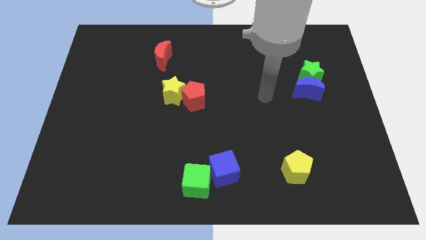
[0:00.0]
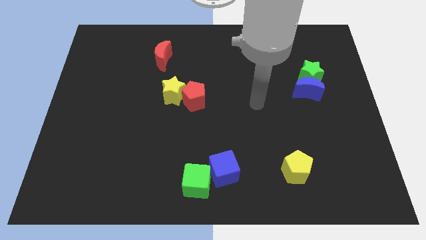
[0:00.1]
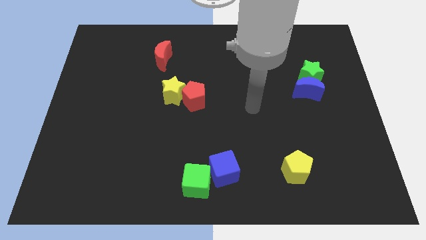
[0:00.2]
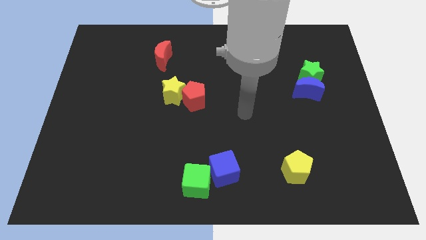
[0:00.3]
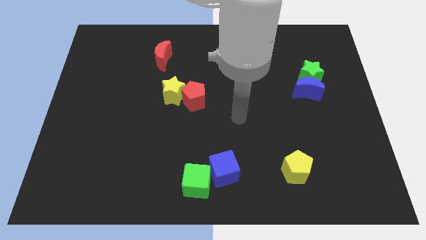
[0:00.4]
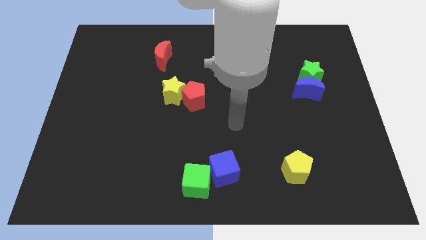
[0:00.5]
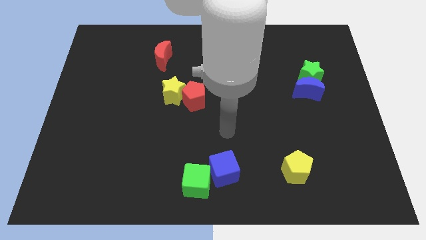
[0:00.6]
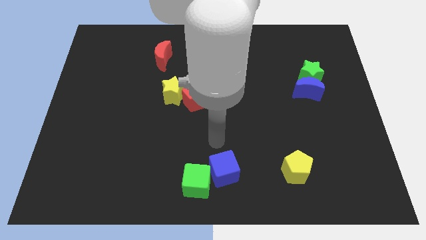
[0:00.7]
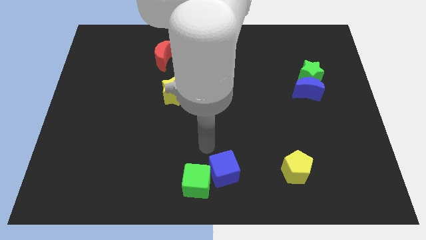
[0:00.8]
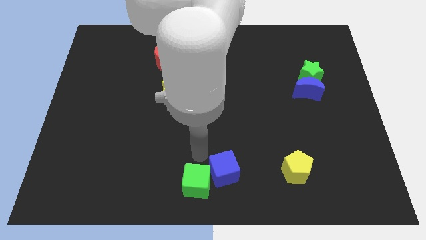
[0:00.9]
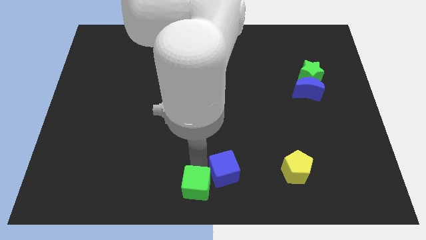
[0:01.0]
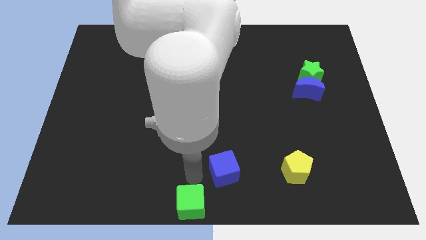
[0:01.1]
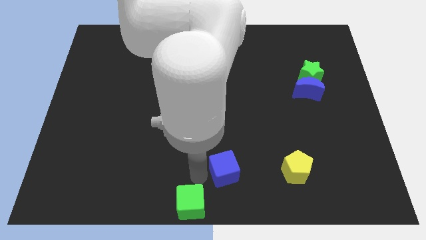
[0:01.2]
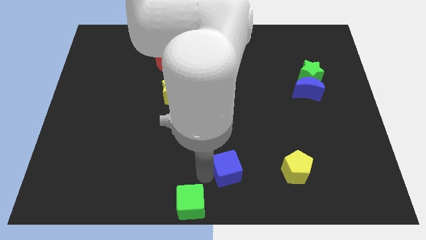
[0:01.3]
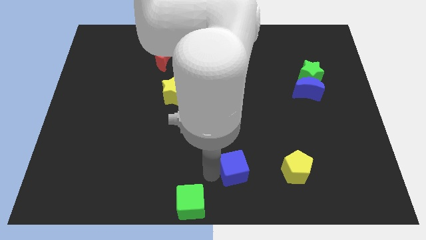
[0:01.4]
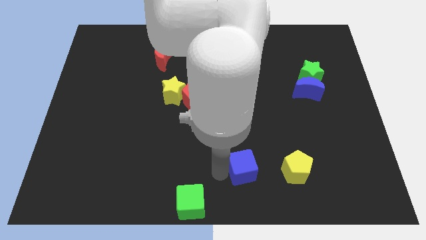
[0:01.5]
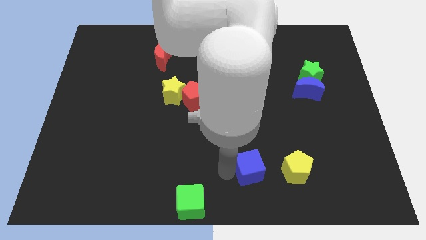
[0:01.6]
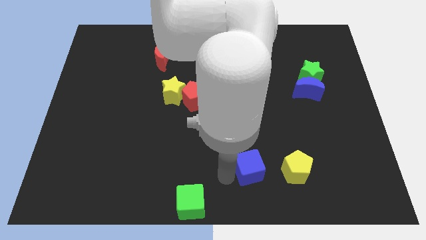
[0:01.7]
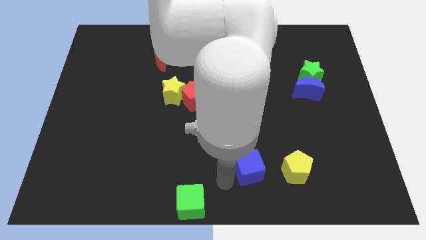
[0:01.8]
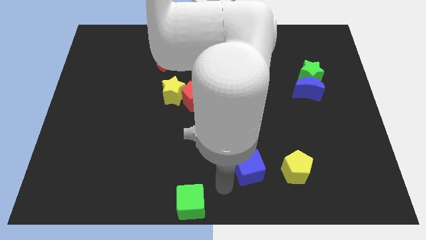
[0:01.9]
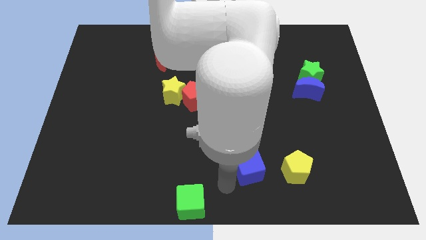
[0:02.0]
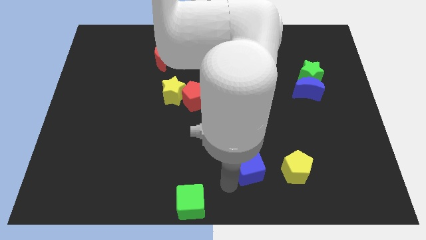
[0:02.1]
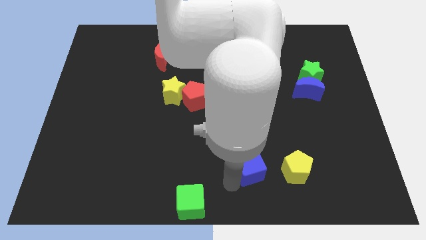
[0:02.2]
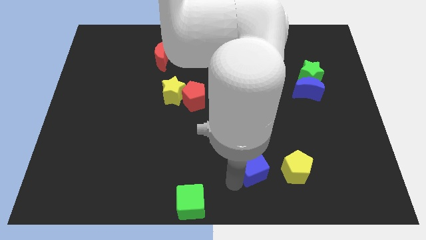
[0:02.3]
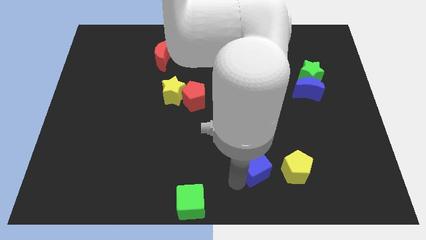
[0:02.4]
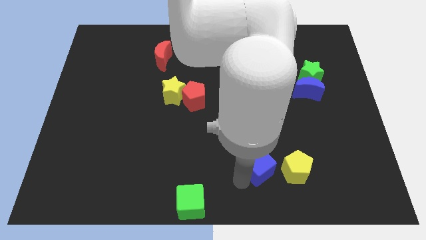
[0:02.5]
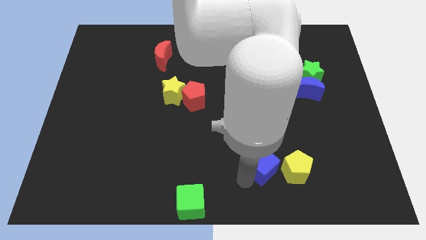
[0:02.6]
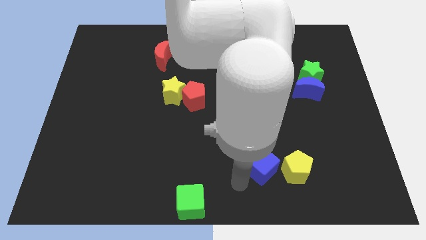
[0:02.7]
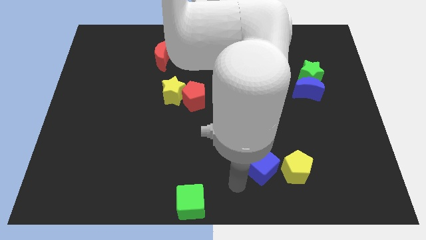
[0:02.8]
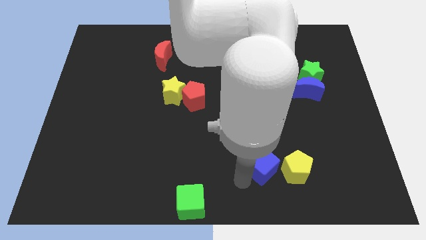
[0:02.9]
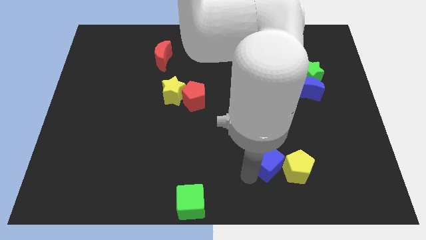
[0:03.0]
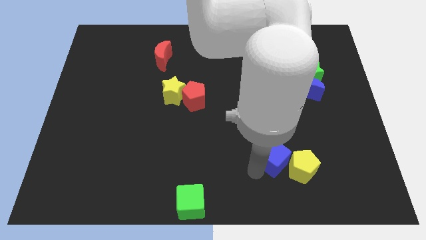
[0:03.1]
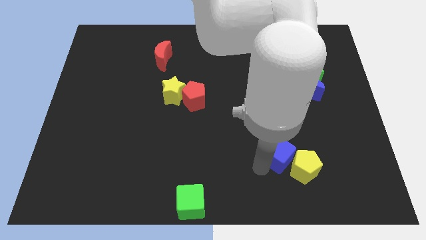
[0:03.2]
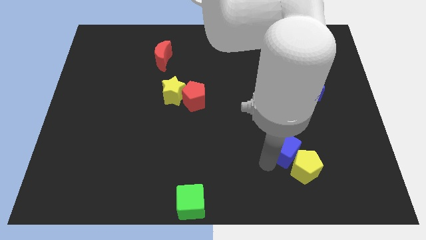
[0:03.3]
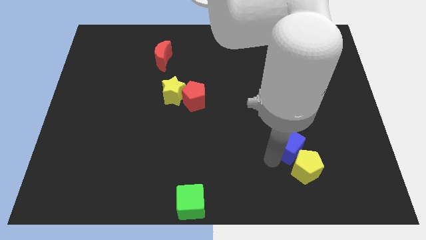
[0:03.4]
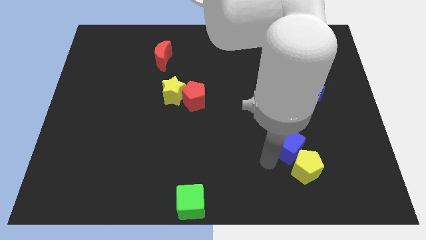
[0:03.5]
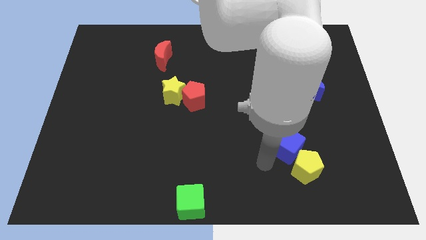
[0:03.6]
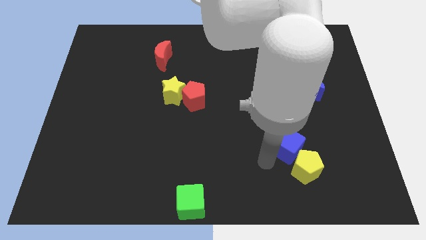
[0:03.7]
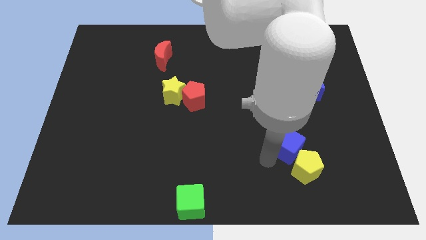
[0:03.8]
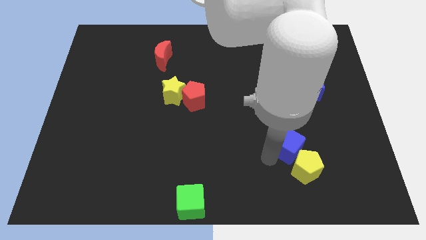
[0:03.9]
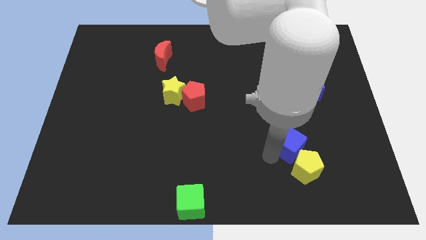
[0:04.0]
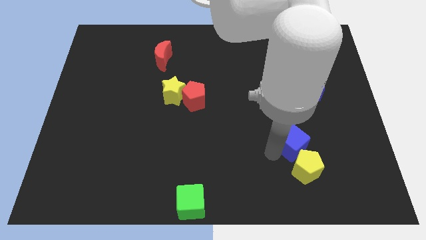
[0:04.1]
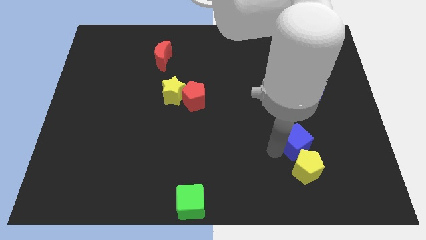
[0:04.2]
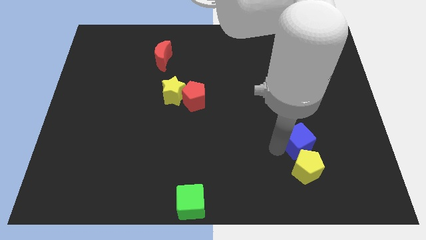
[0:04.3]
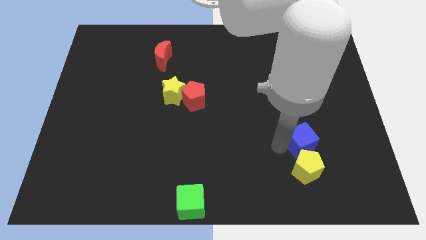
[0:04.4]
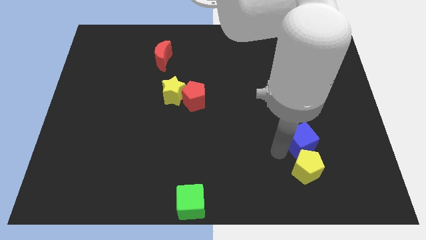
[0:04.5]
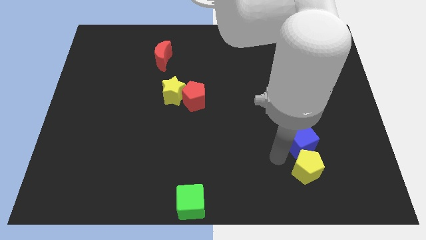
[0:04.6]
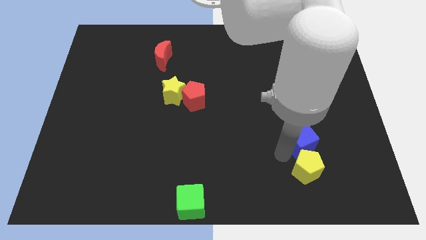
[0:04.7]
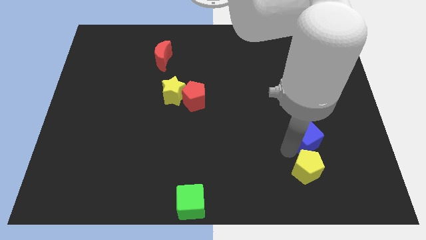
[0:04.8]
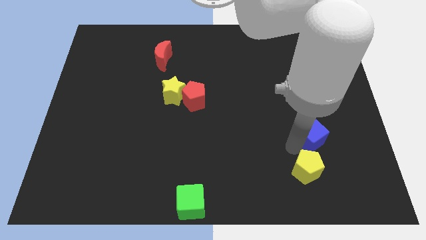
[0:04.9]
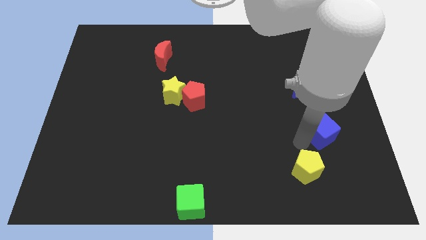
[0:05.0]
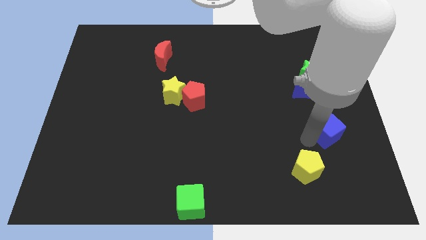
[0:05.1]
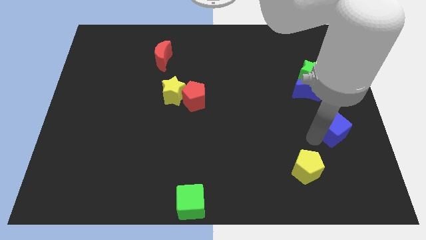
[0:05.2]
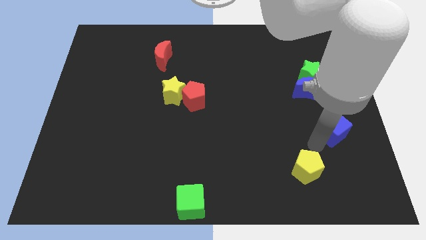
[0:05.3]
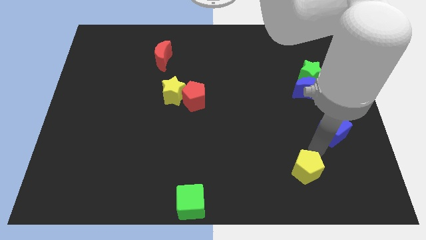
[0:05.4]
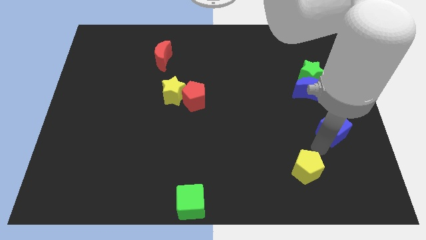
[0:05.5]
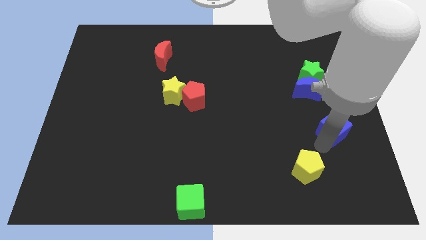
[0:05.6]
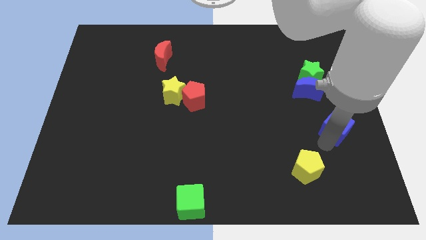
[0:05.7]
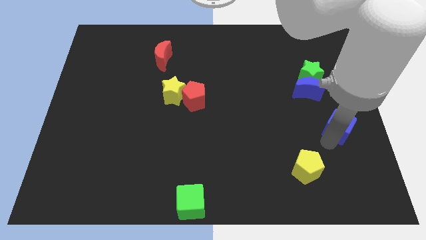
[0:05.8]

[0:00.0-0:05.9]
put the blue cube to the right side

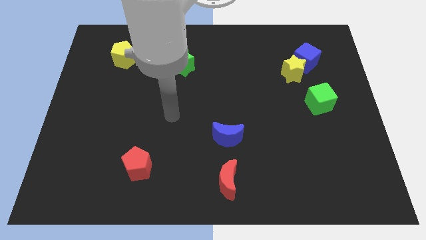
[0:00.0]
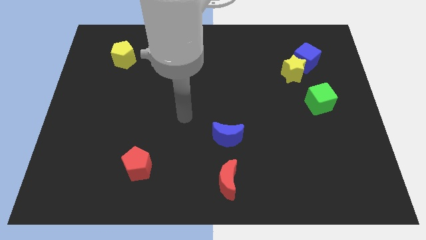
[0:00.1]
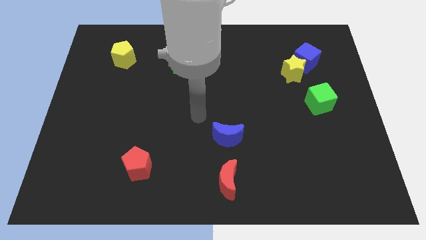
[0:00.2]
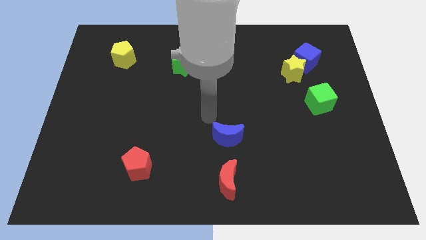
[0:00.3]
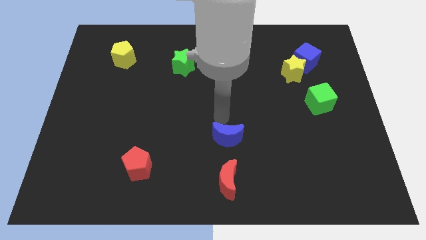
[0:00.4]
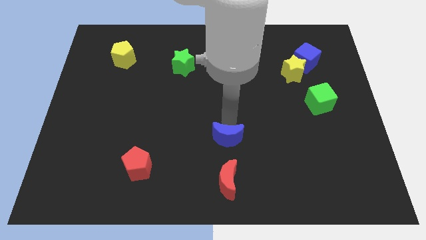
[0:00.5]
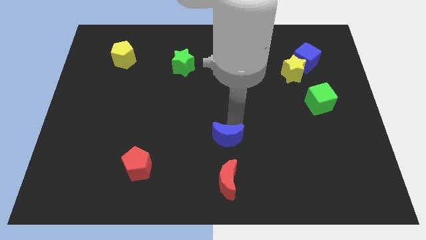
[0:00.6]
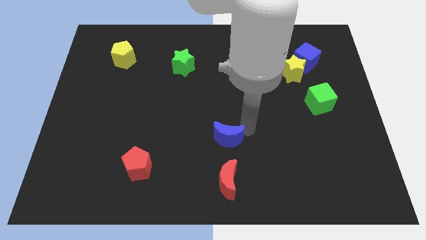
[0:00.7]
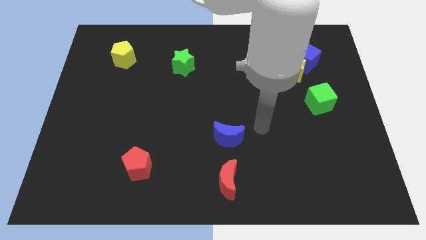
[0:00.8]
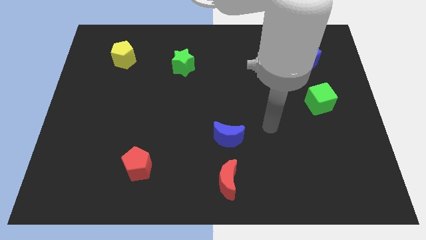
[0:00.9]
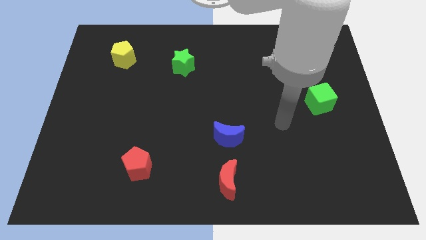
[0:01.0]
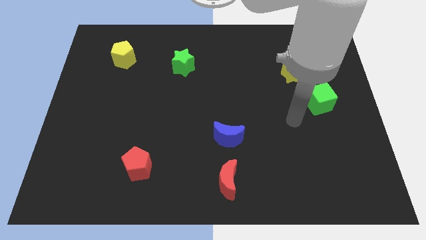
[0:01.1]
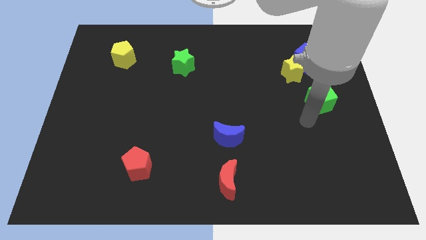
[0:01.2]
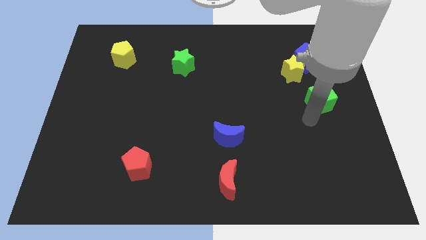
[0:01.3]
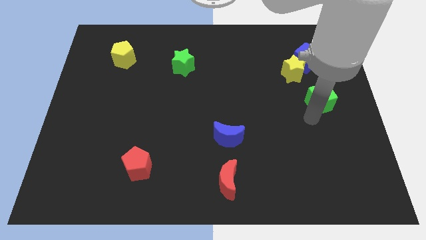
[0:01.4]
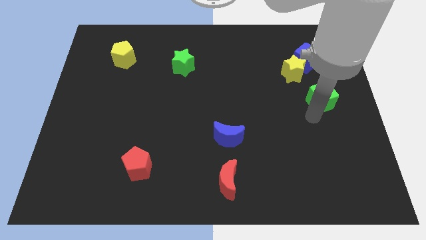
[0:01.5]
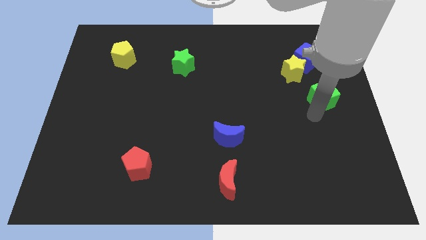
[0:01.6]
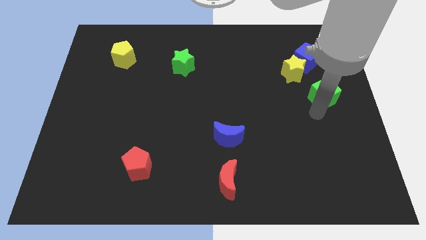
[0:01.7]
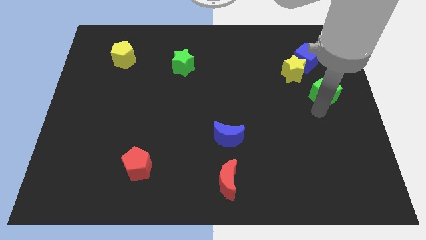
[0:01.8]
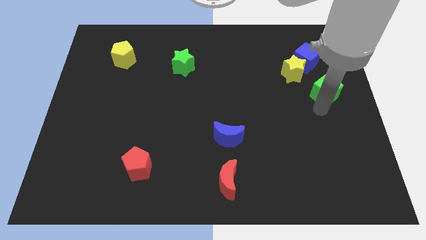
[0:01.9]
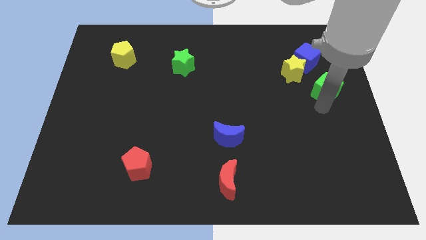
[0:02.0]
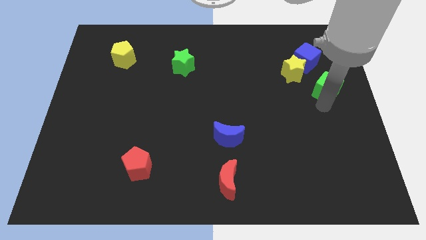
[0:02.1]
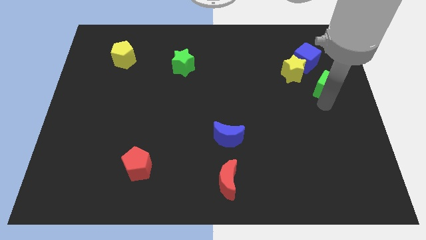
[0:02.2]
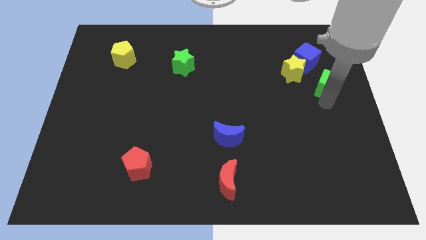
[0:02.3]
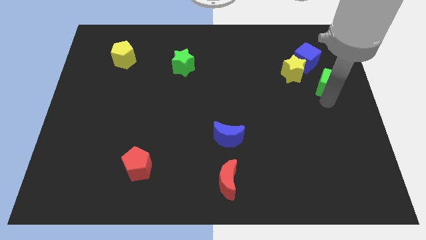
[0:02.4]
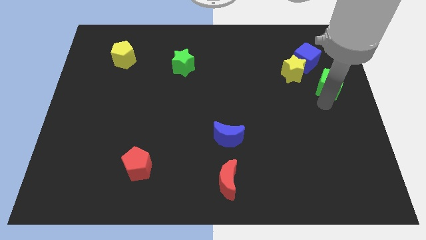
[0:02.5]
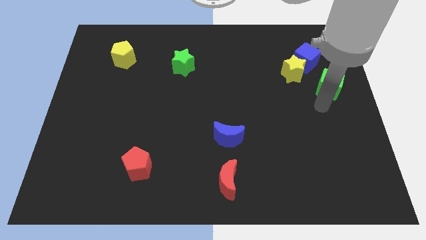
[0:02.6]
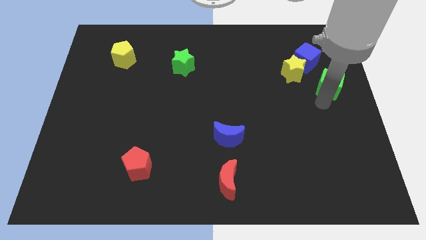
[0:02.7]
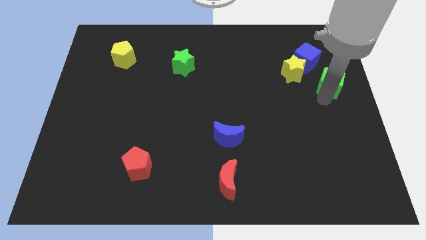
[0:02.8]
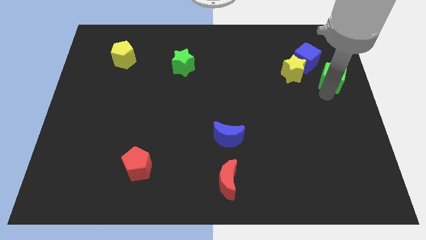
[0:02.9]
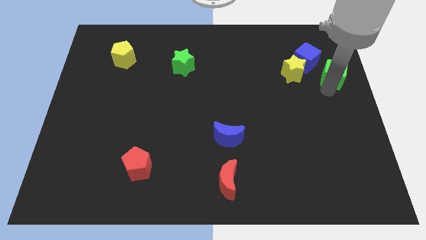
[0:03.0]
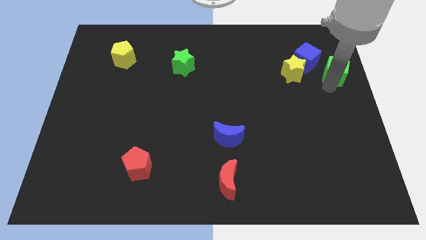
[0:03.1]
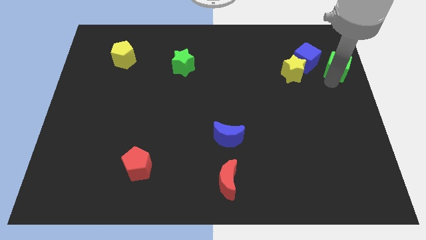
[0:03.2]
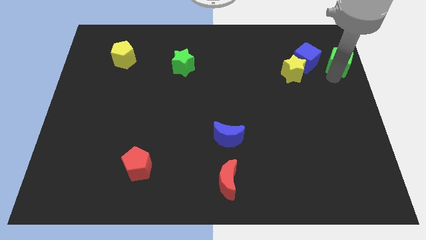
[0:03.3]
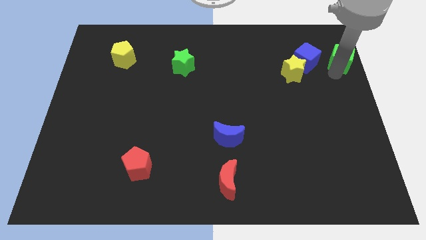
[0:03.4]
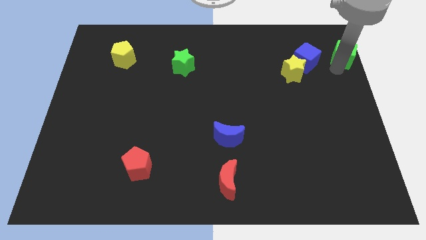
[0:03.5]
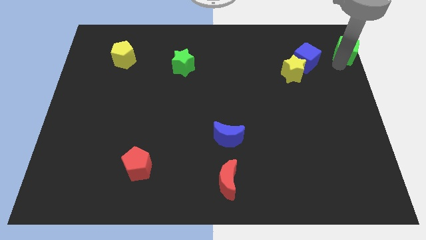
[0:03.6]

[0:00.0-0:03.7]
put the green cube to the top right
